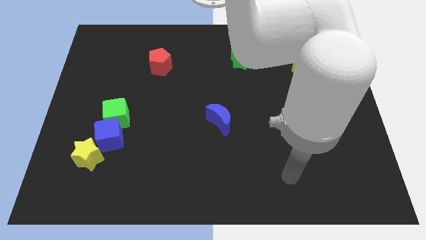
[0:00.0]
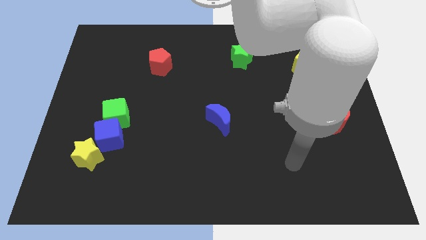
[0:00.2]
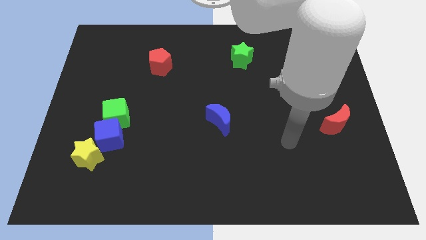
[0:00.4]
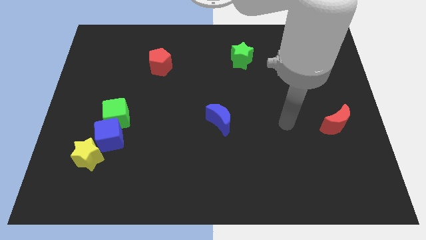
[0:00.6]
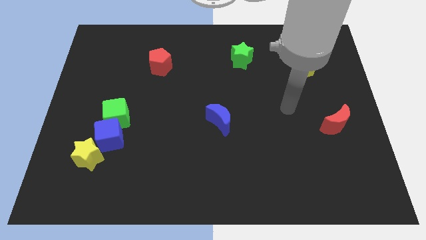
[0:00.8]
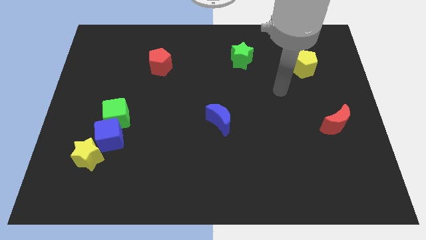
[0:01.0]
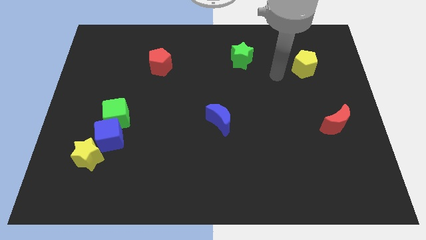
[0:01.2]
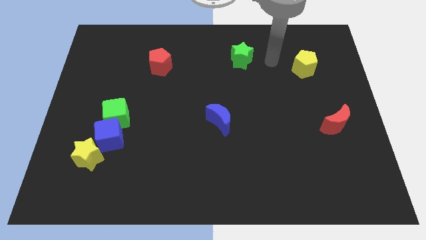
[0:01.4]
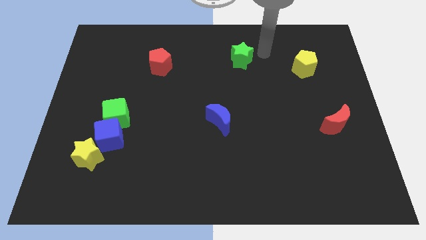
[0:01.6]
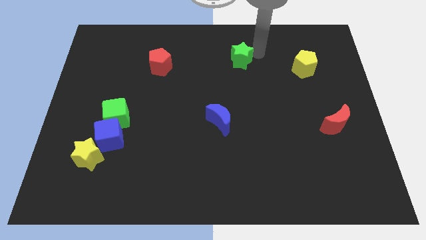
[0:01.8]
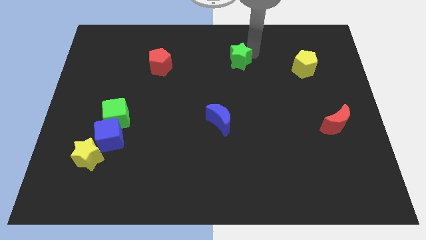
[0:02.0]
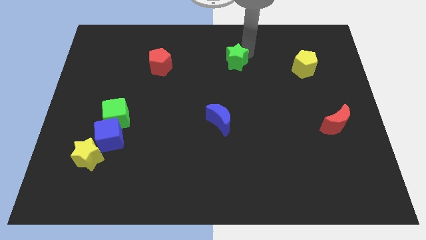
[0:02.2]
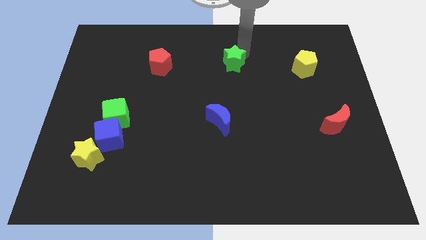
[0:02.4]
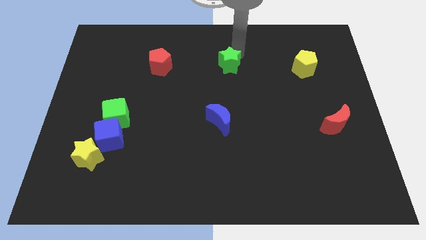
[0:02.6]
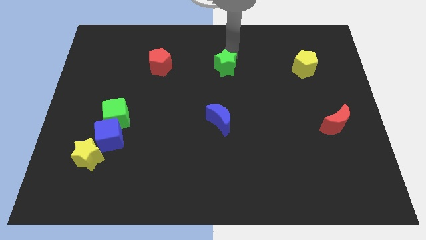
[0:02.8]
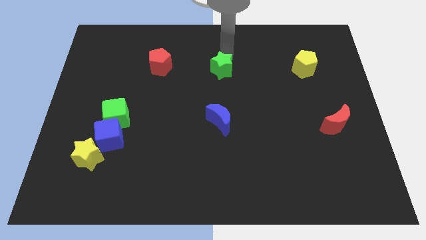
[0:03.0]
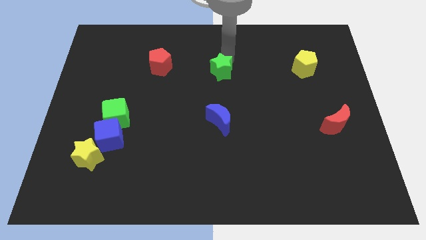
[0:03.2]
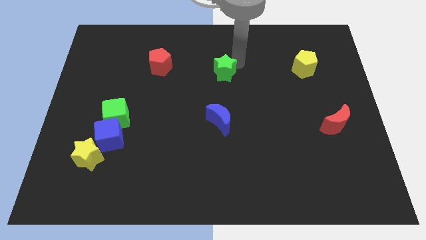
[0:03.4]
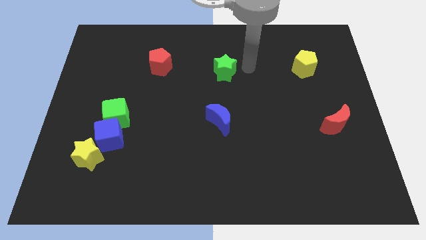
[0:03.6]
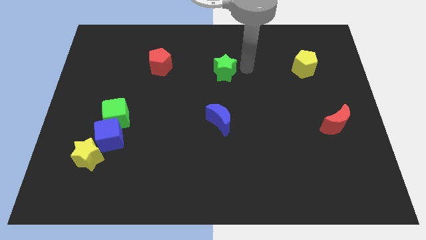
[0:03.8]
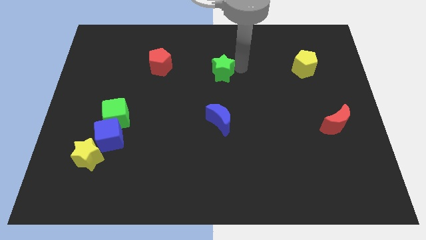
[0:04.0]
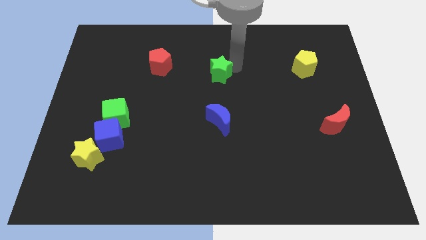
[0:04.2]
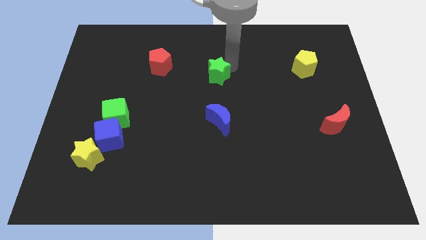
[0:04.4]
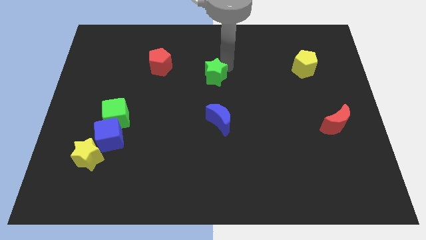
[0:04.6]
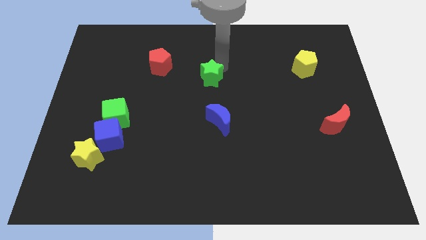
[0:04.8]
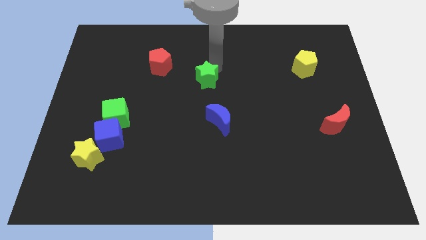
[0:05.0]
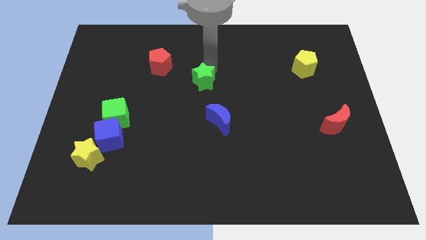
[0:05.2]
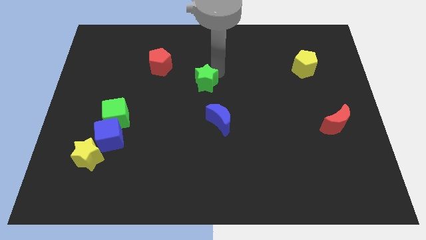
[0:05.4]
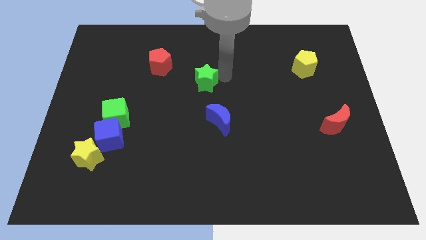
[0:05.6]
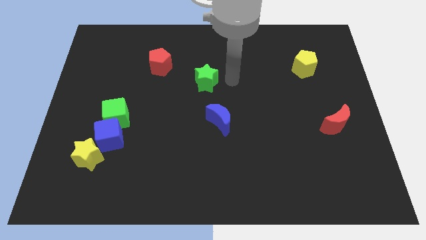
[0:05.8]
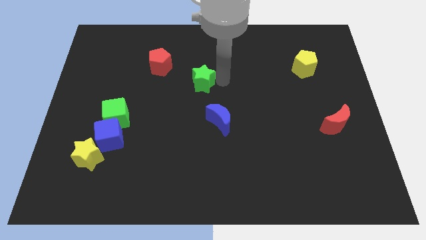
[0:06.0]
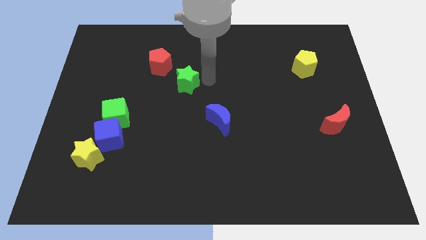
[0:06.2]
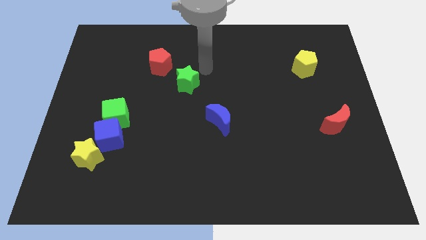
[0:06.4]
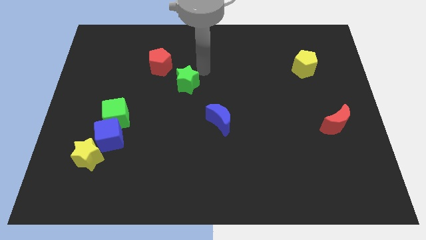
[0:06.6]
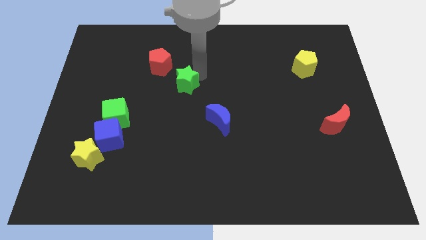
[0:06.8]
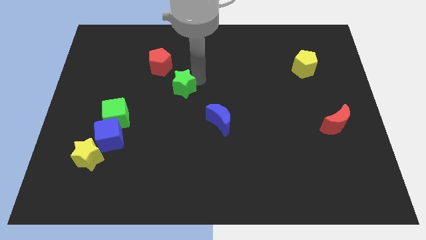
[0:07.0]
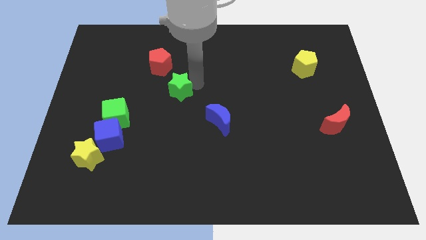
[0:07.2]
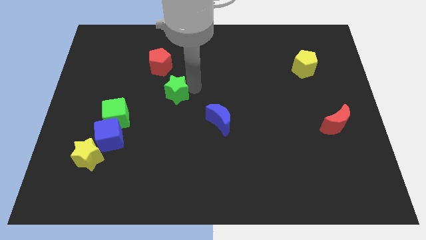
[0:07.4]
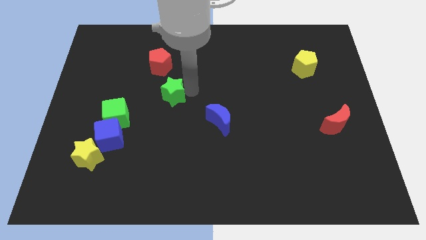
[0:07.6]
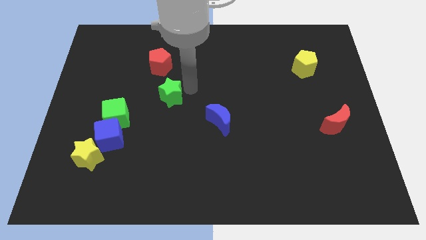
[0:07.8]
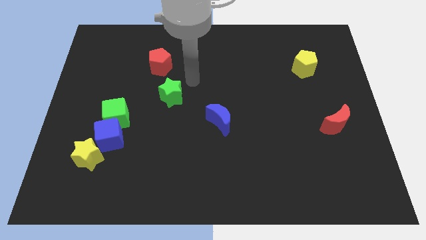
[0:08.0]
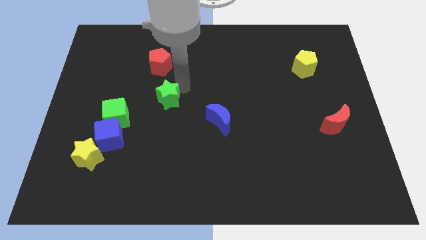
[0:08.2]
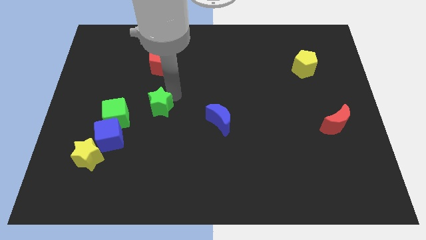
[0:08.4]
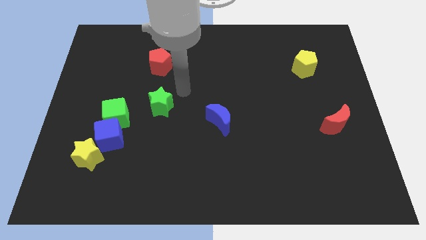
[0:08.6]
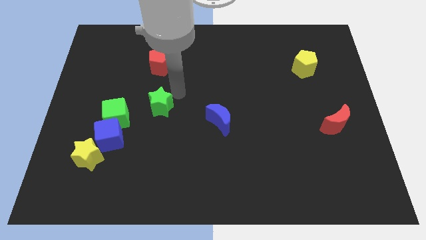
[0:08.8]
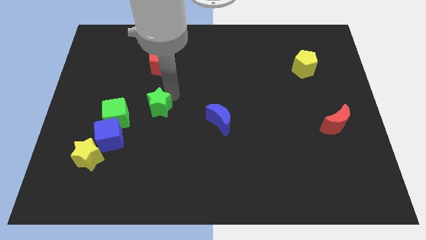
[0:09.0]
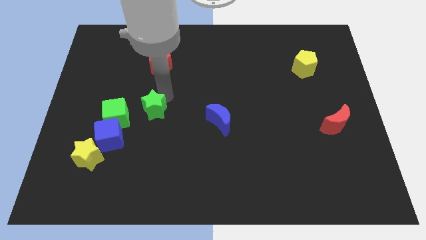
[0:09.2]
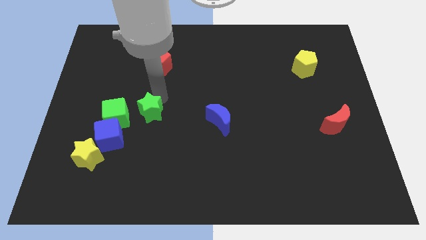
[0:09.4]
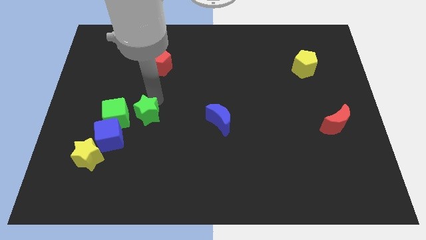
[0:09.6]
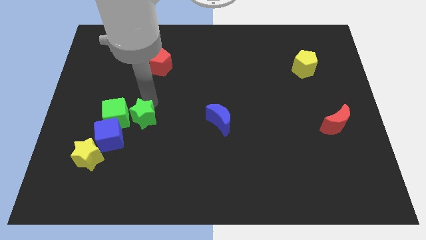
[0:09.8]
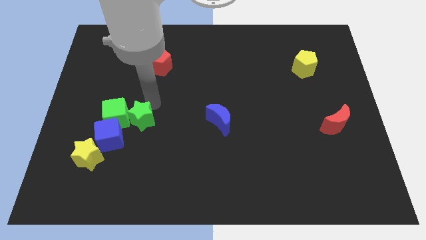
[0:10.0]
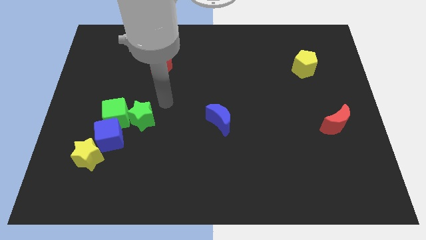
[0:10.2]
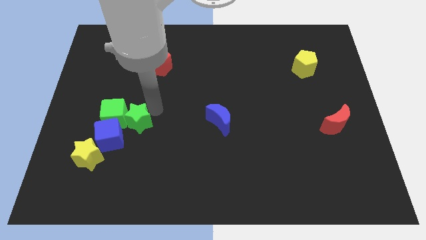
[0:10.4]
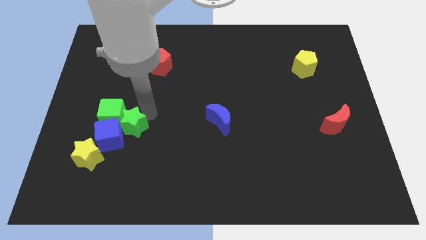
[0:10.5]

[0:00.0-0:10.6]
slide the green star to the top right of the yellow star

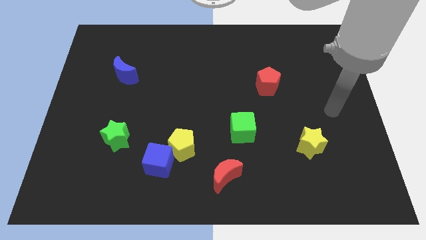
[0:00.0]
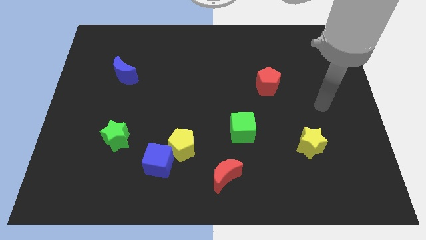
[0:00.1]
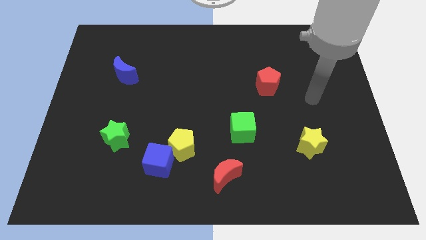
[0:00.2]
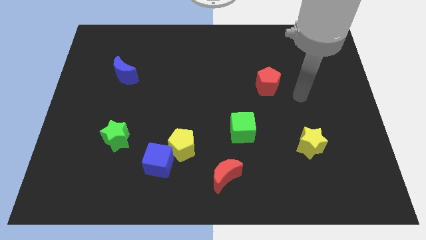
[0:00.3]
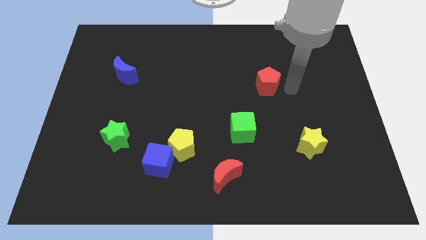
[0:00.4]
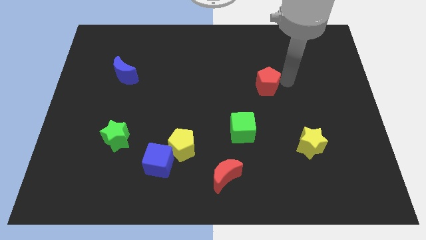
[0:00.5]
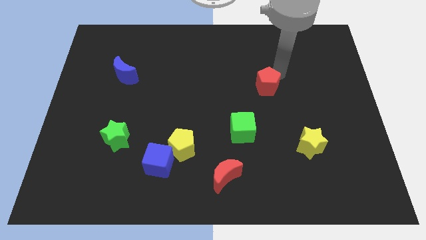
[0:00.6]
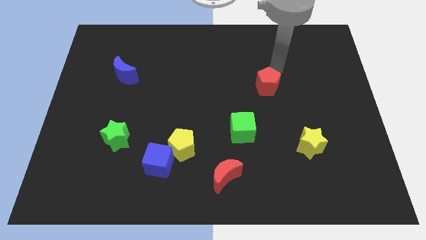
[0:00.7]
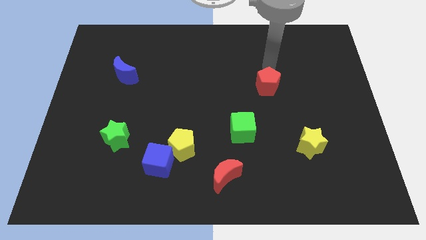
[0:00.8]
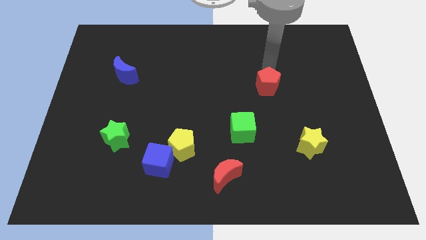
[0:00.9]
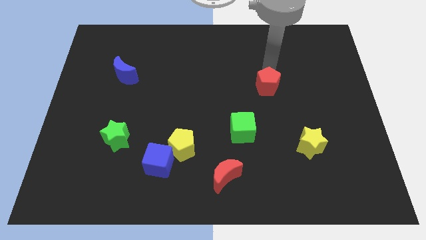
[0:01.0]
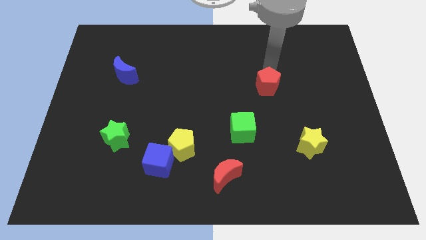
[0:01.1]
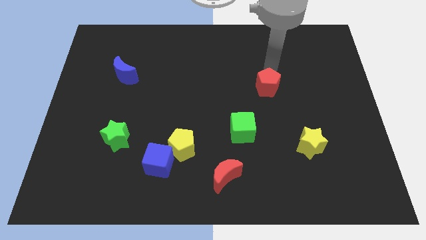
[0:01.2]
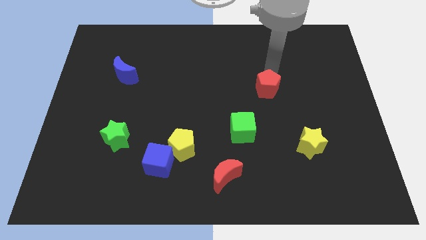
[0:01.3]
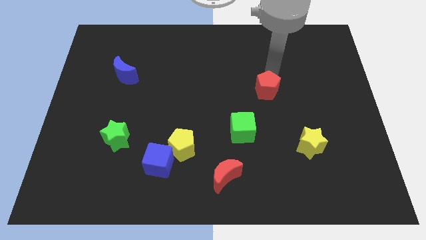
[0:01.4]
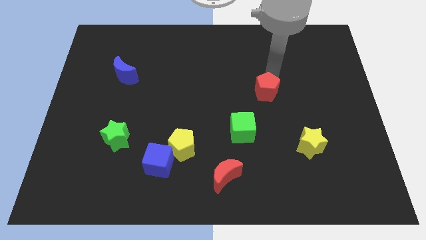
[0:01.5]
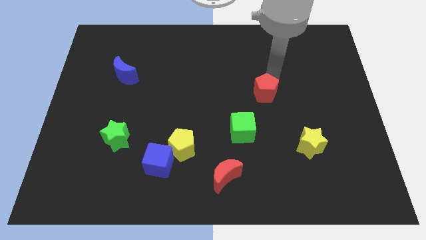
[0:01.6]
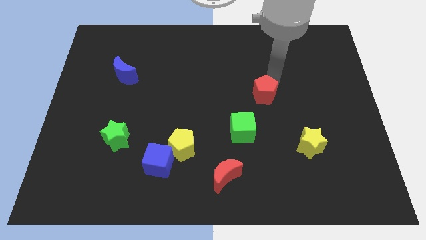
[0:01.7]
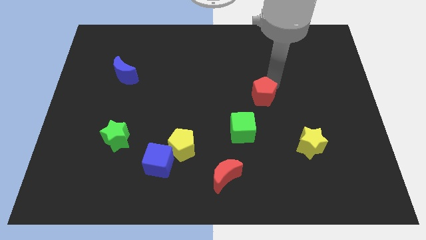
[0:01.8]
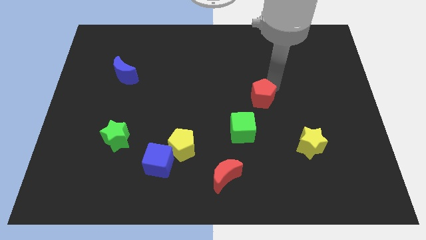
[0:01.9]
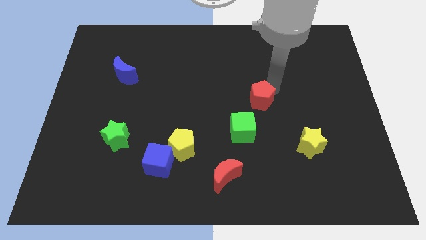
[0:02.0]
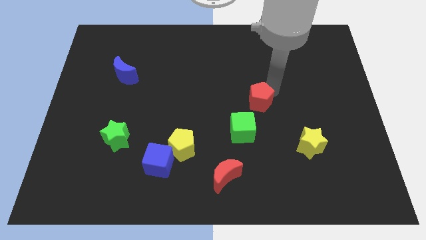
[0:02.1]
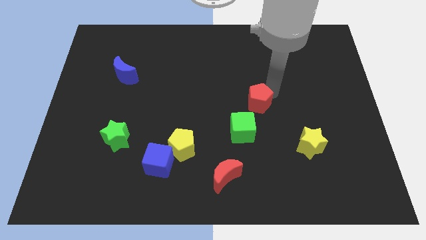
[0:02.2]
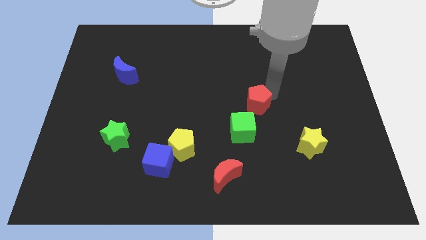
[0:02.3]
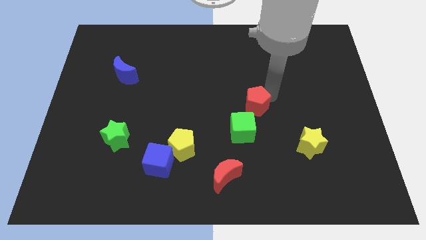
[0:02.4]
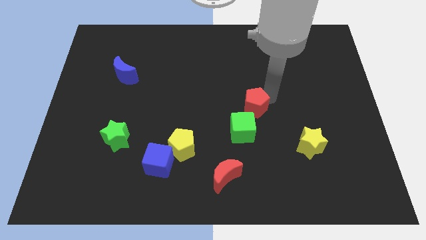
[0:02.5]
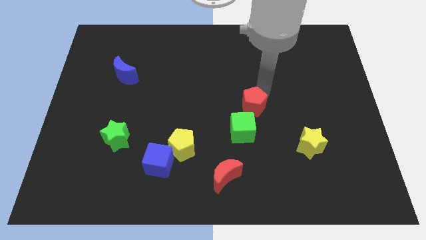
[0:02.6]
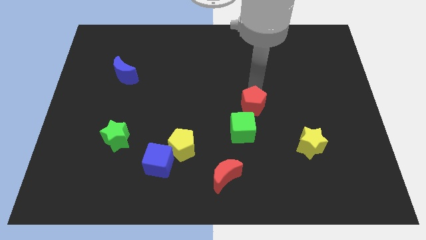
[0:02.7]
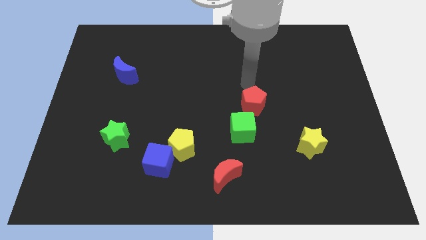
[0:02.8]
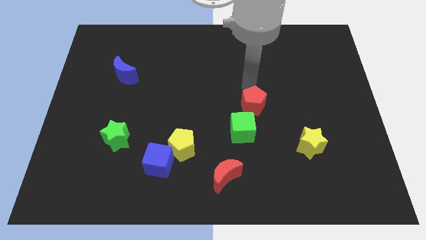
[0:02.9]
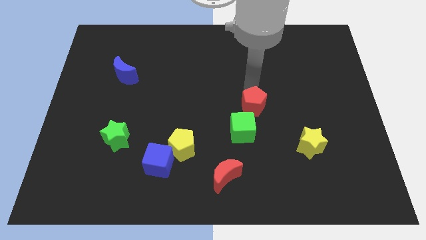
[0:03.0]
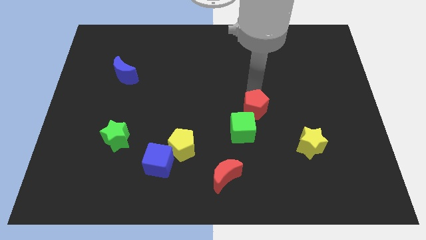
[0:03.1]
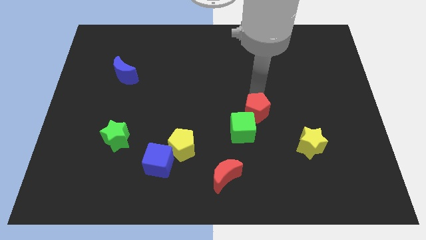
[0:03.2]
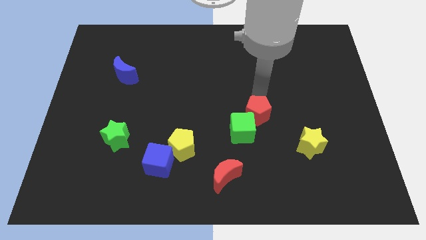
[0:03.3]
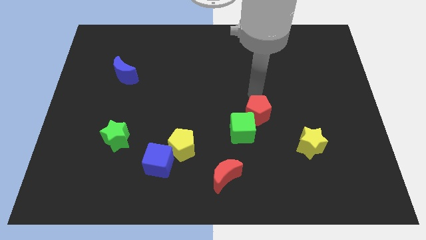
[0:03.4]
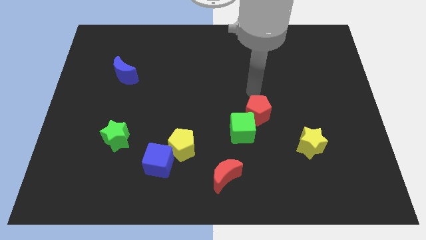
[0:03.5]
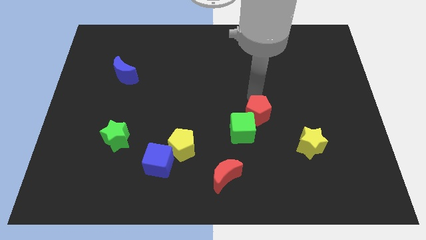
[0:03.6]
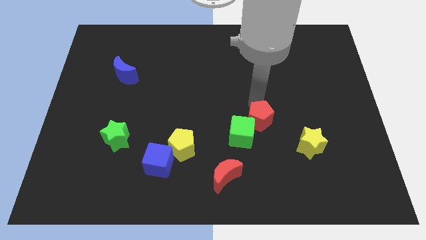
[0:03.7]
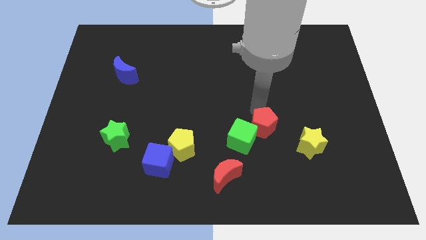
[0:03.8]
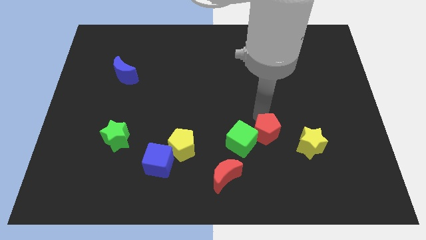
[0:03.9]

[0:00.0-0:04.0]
slide the red pentagon just left of the yellow star
